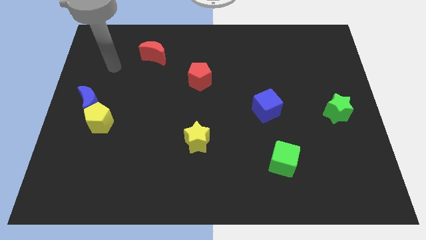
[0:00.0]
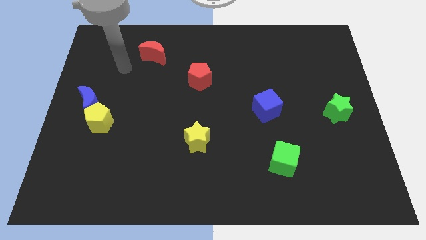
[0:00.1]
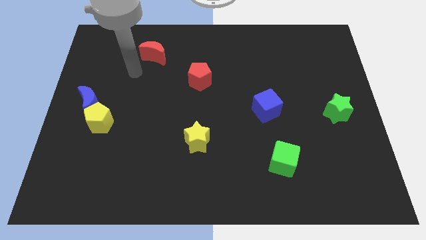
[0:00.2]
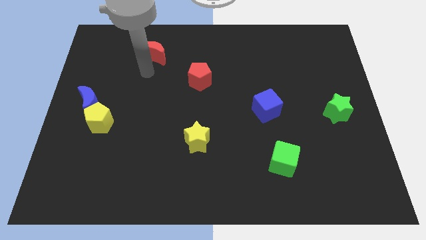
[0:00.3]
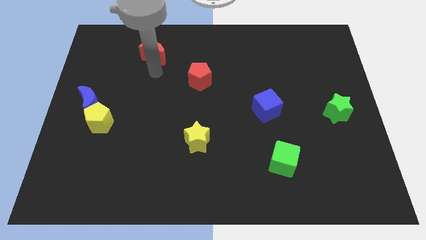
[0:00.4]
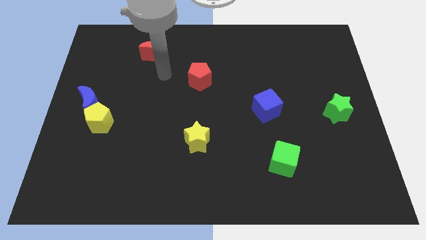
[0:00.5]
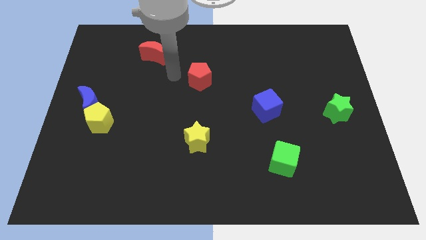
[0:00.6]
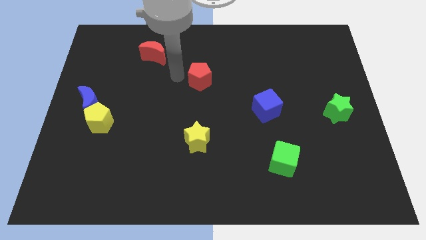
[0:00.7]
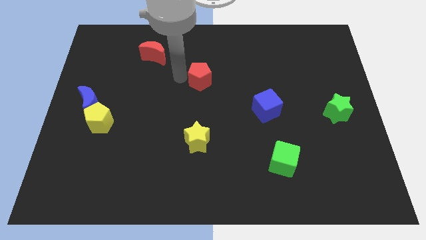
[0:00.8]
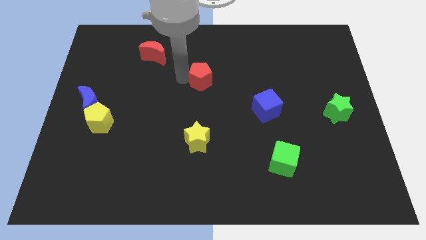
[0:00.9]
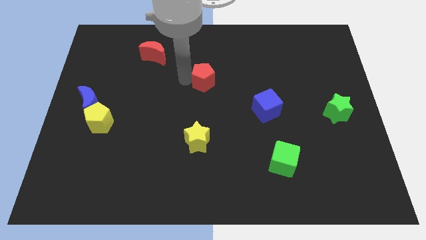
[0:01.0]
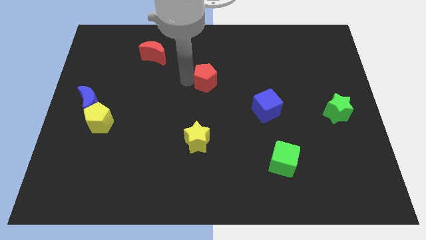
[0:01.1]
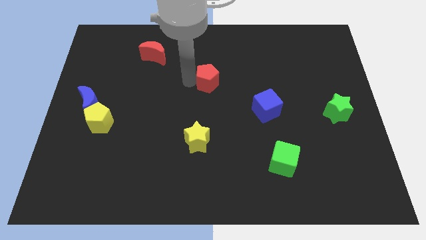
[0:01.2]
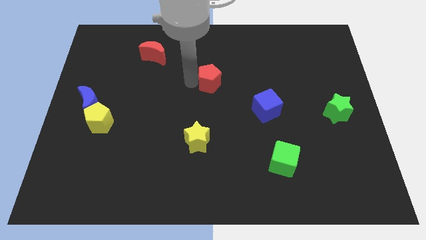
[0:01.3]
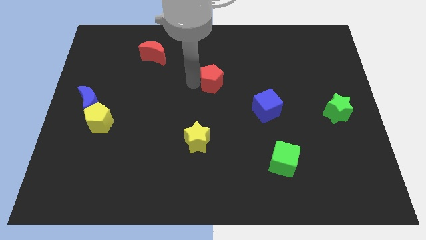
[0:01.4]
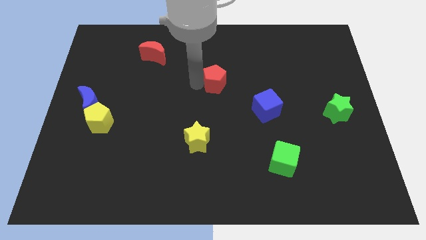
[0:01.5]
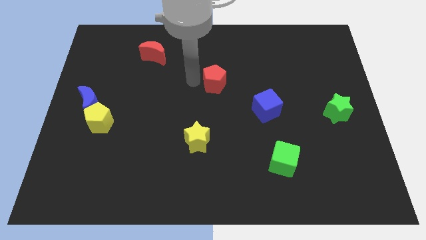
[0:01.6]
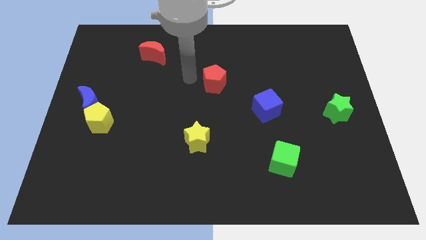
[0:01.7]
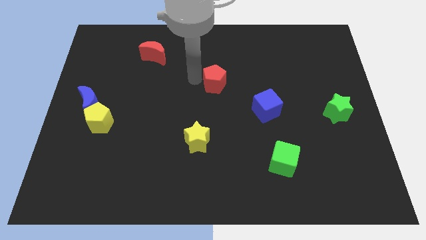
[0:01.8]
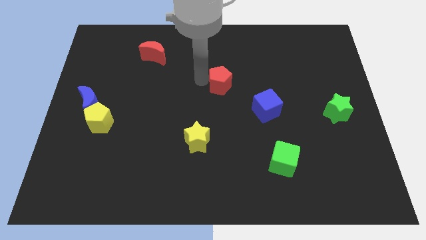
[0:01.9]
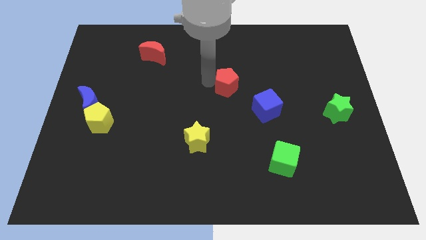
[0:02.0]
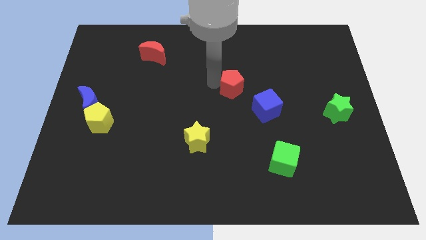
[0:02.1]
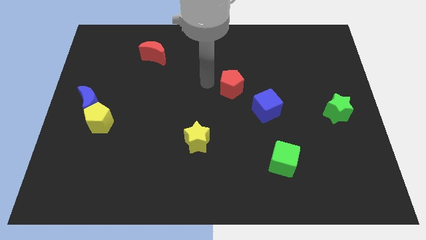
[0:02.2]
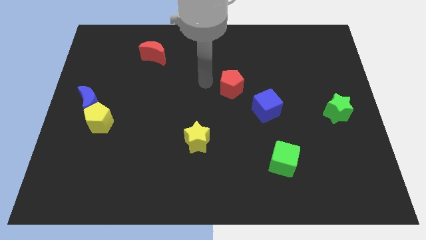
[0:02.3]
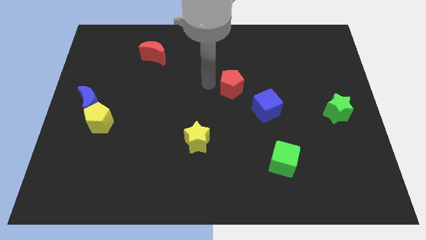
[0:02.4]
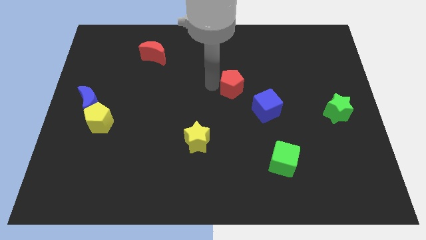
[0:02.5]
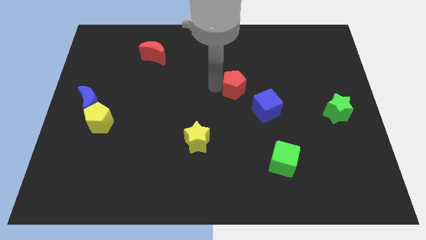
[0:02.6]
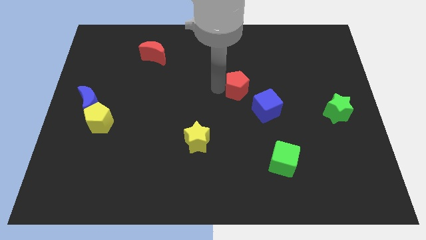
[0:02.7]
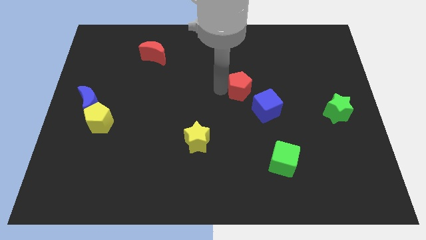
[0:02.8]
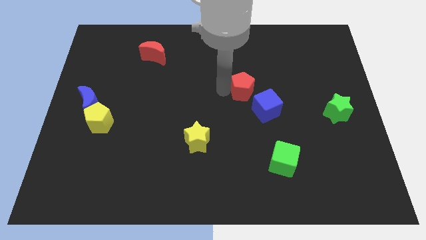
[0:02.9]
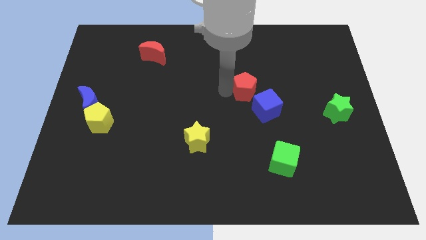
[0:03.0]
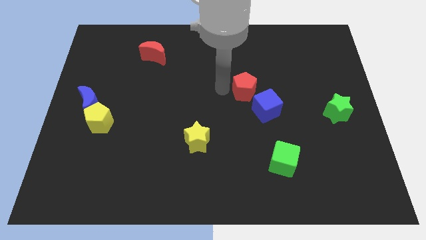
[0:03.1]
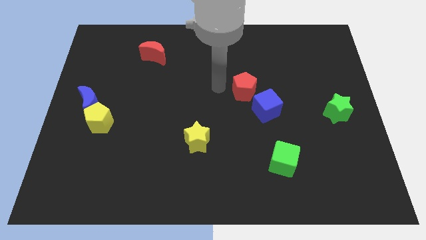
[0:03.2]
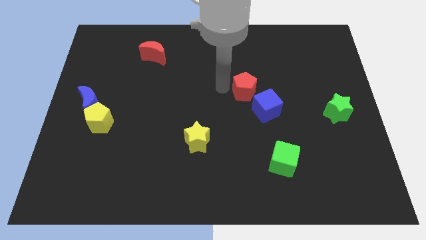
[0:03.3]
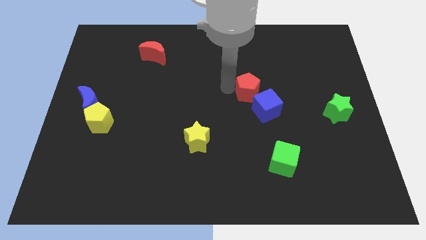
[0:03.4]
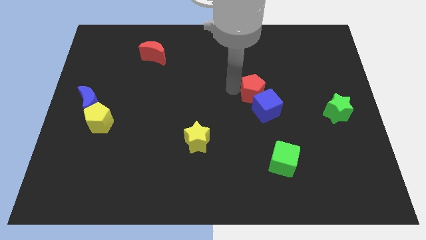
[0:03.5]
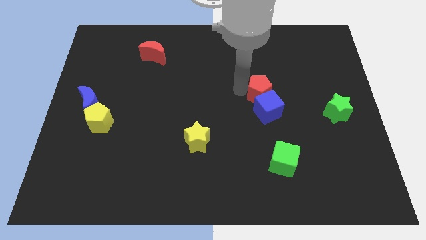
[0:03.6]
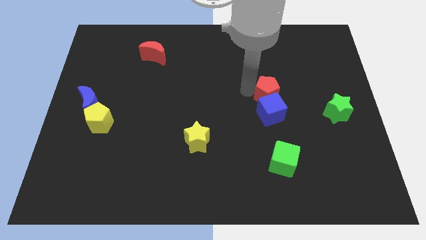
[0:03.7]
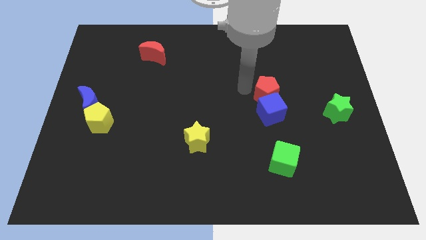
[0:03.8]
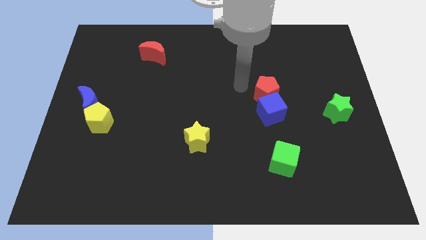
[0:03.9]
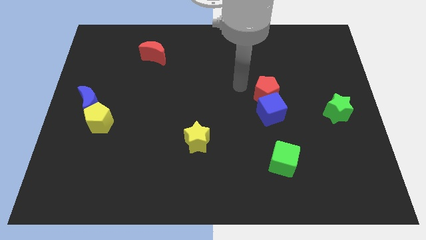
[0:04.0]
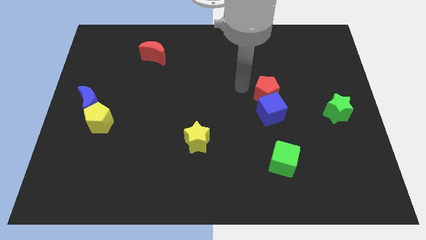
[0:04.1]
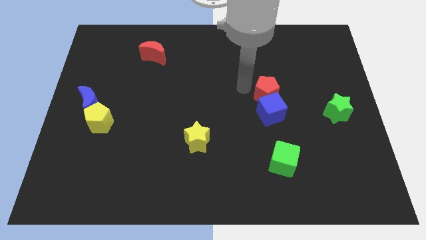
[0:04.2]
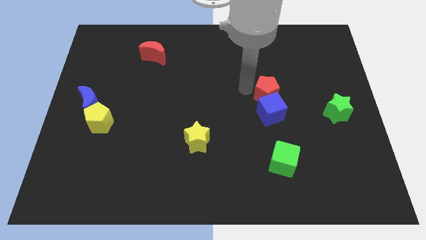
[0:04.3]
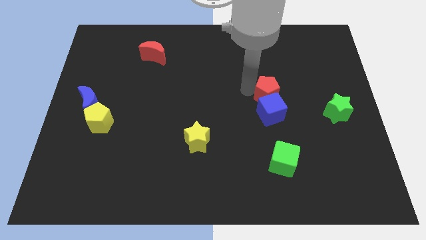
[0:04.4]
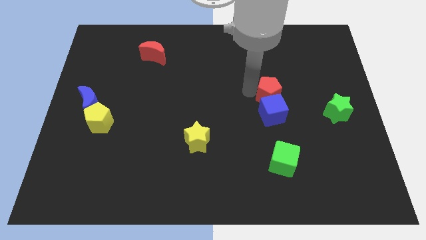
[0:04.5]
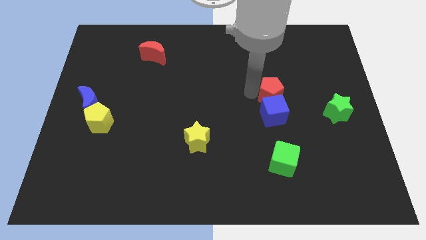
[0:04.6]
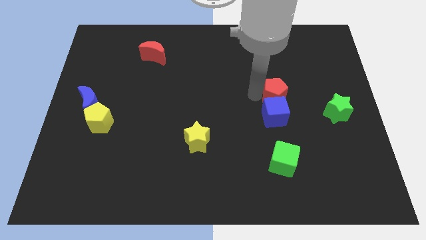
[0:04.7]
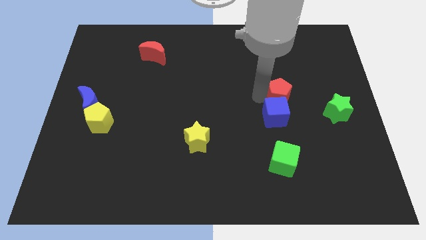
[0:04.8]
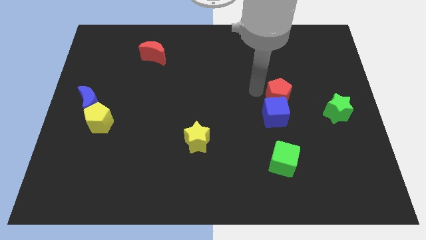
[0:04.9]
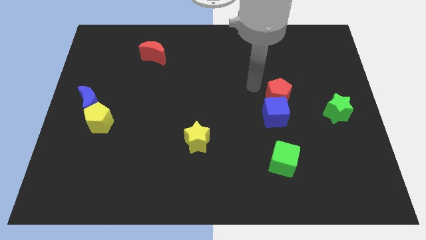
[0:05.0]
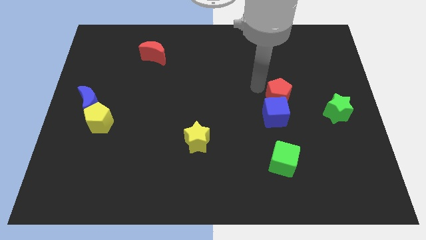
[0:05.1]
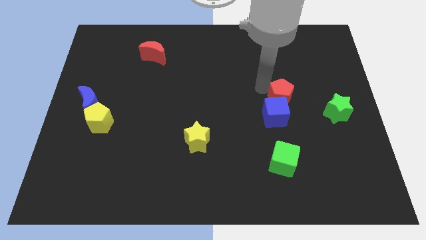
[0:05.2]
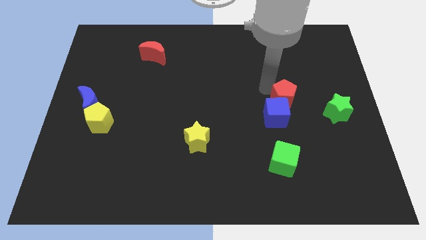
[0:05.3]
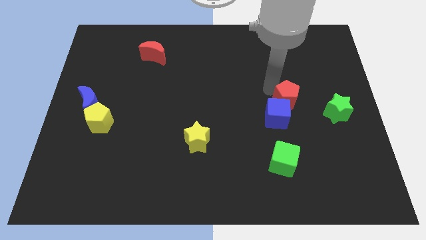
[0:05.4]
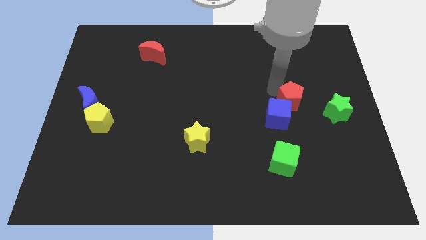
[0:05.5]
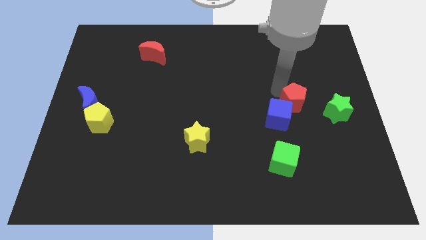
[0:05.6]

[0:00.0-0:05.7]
put the red pentagon to the right side of the blue cube
